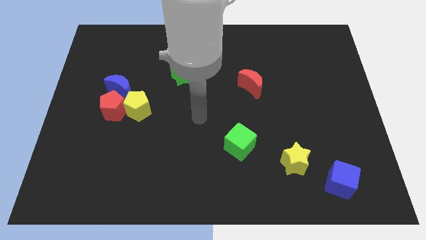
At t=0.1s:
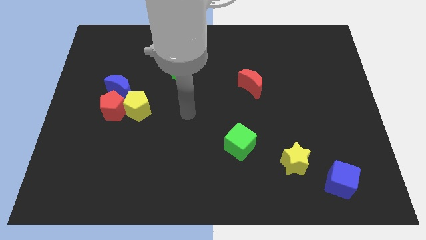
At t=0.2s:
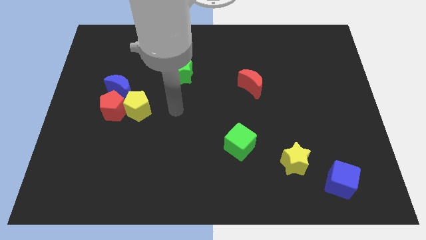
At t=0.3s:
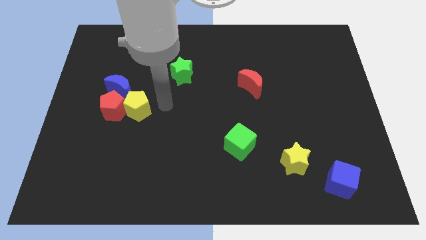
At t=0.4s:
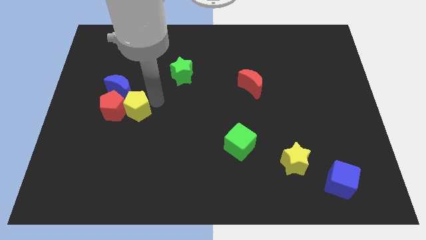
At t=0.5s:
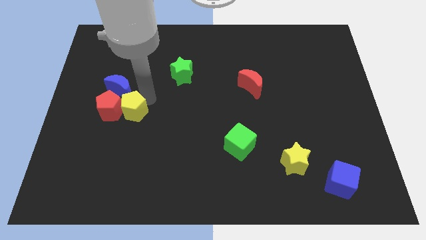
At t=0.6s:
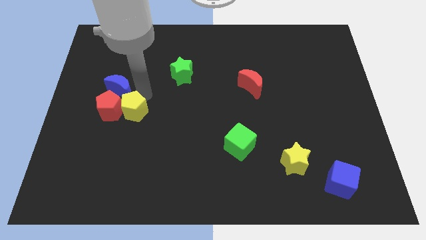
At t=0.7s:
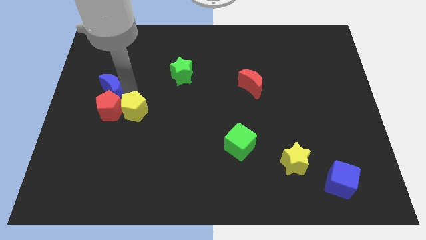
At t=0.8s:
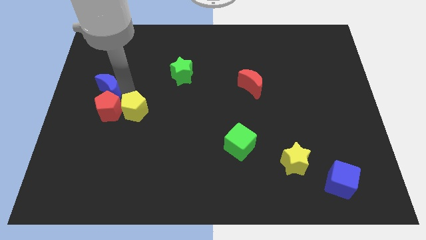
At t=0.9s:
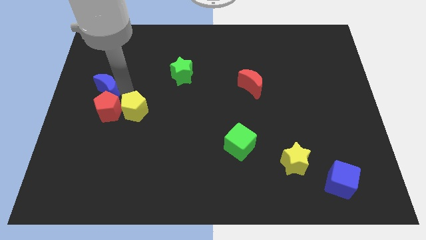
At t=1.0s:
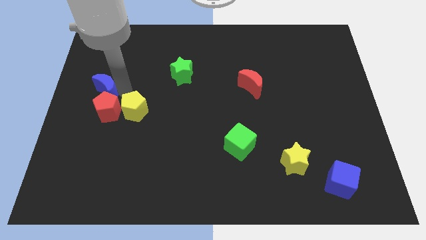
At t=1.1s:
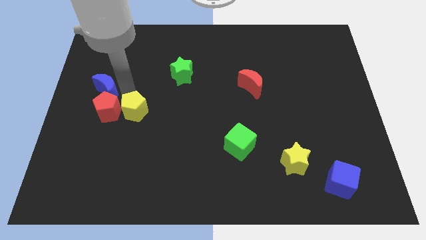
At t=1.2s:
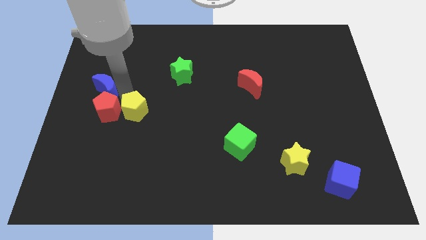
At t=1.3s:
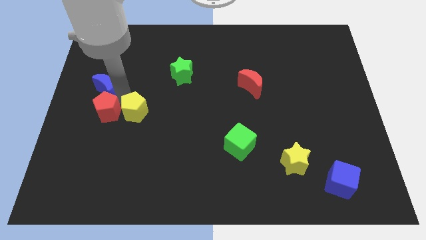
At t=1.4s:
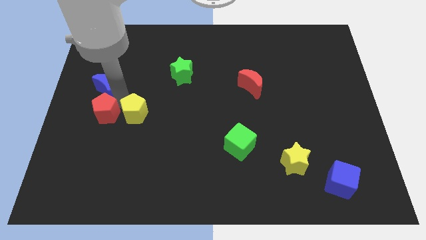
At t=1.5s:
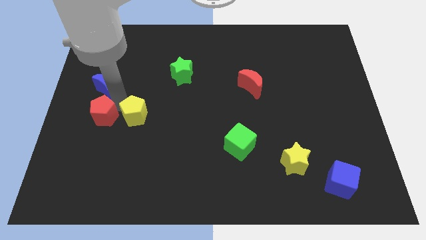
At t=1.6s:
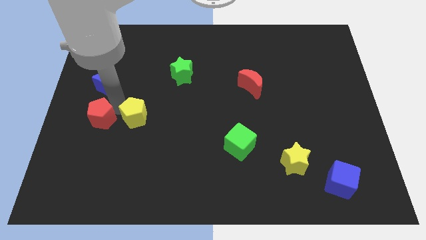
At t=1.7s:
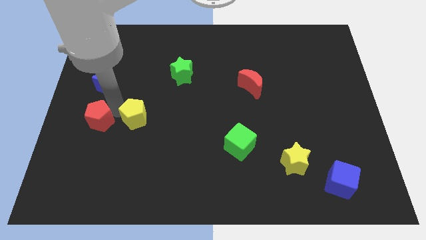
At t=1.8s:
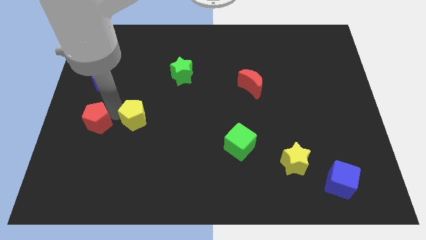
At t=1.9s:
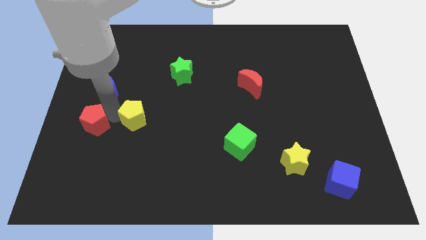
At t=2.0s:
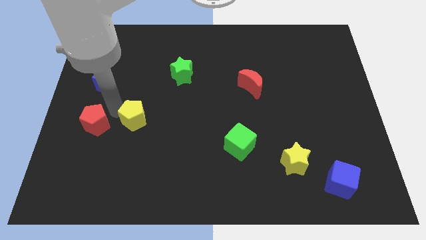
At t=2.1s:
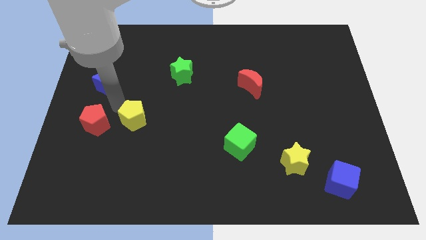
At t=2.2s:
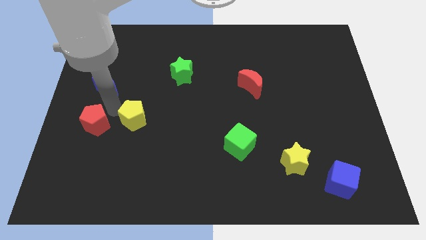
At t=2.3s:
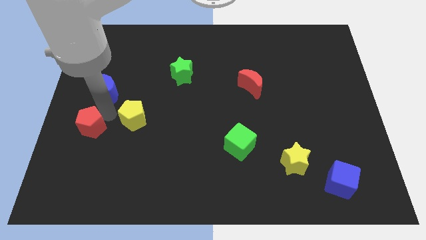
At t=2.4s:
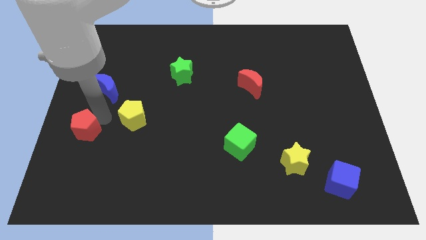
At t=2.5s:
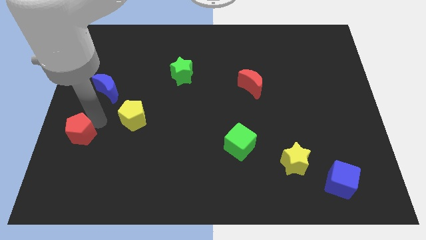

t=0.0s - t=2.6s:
pull the red pentagon apart from the yellow pentagon and blue moon

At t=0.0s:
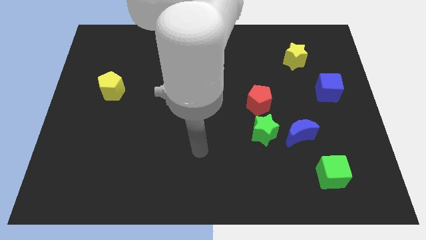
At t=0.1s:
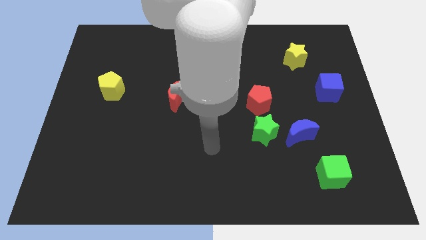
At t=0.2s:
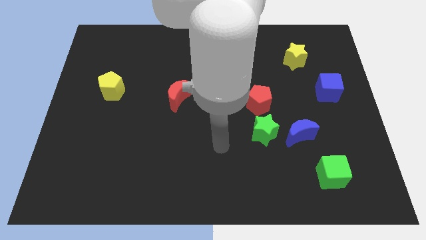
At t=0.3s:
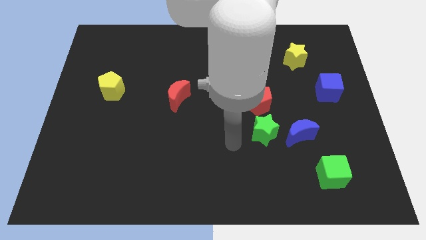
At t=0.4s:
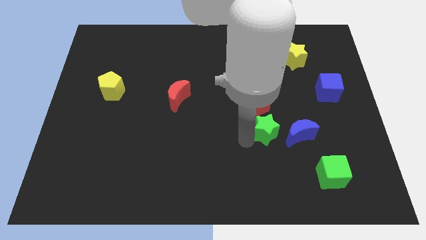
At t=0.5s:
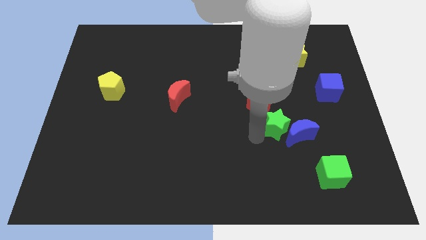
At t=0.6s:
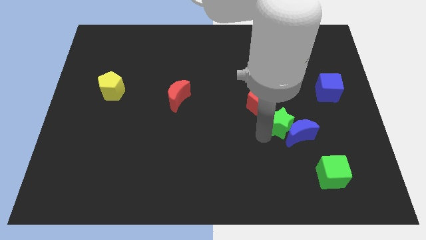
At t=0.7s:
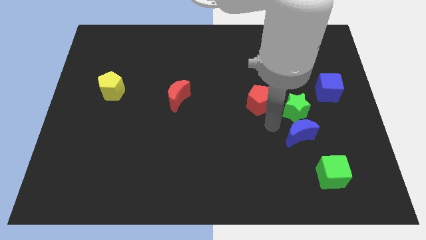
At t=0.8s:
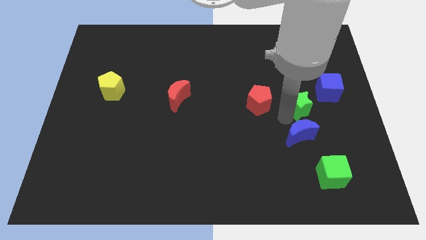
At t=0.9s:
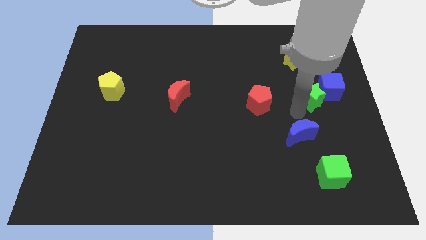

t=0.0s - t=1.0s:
pull the blue moon apart from the green star

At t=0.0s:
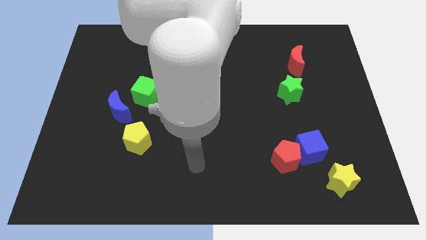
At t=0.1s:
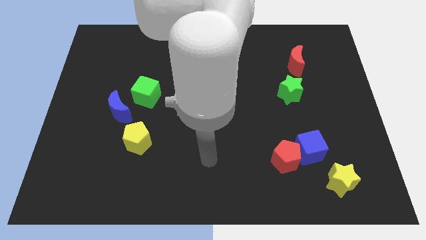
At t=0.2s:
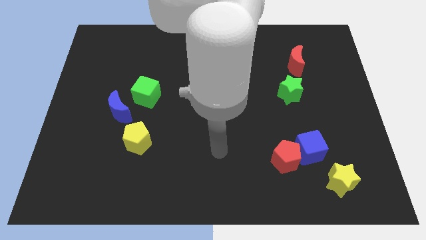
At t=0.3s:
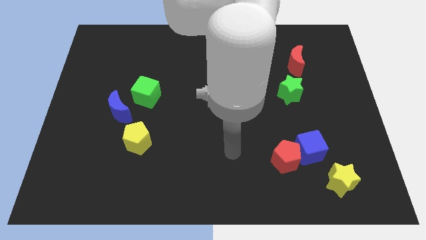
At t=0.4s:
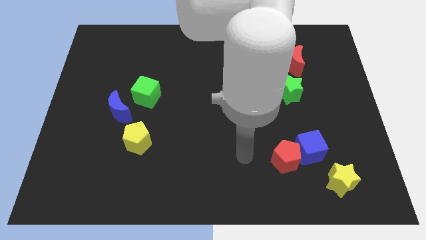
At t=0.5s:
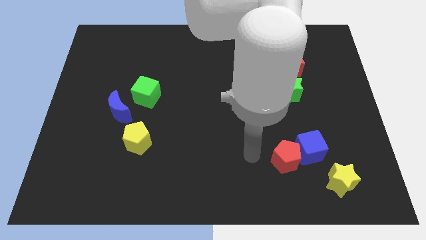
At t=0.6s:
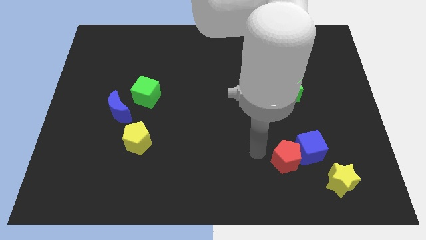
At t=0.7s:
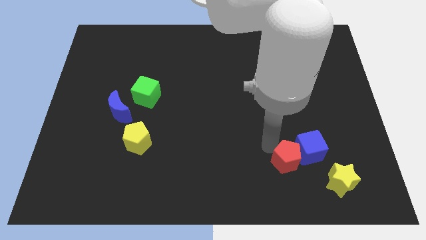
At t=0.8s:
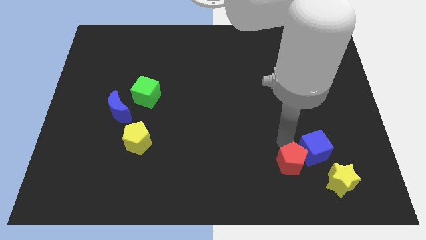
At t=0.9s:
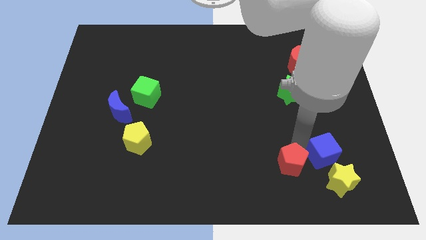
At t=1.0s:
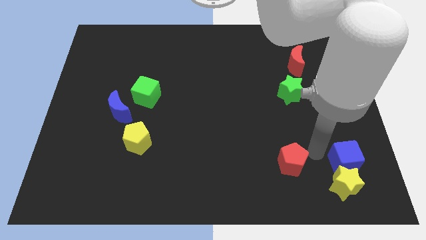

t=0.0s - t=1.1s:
move the red pentagon away from the blue cube

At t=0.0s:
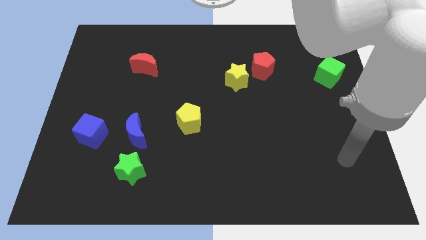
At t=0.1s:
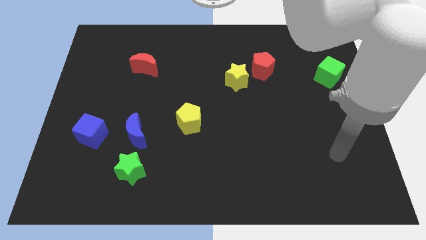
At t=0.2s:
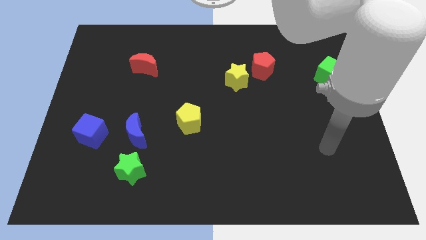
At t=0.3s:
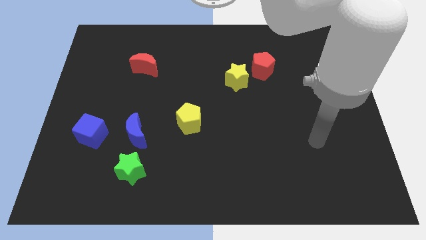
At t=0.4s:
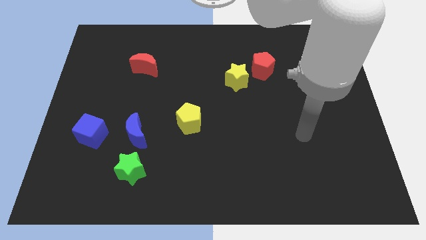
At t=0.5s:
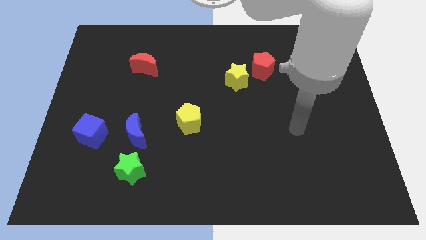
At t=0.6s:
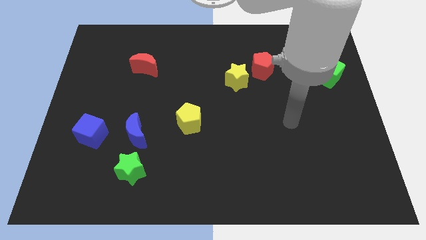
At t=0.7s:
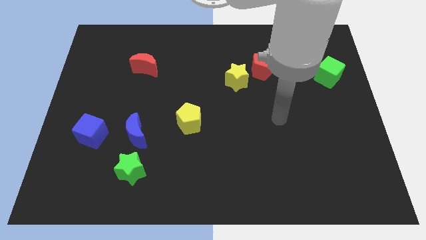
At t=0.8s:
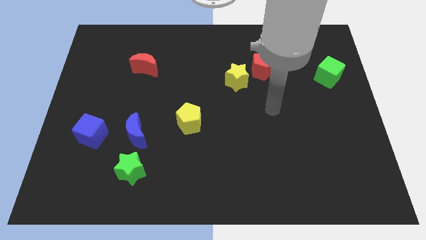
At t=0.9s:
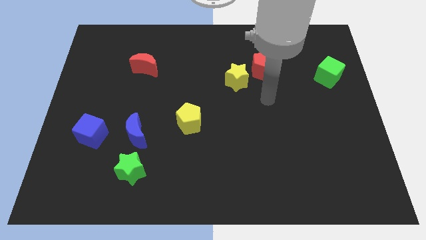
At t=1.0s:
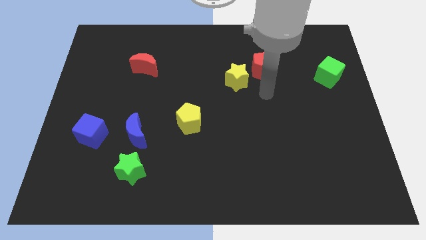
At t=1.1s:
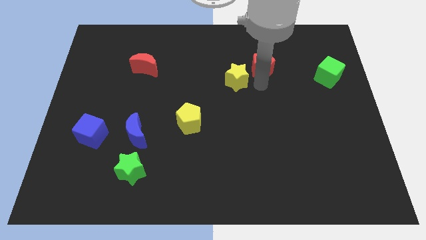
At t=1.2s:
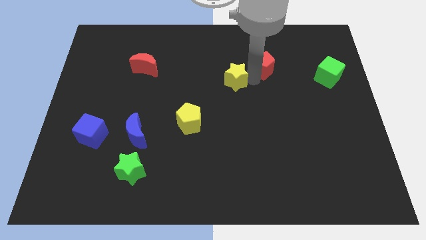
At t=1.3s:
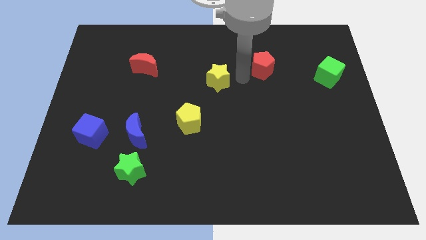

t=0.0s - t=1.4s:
move the red pentagon away from the yellow star

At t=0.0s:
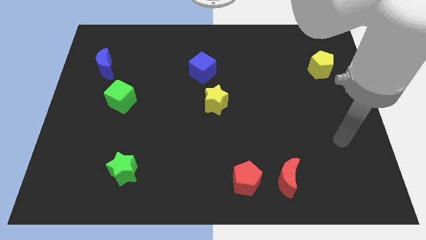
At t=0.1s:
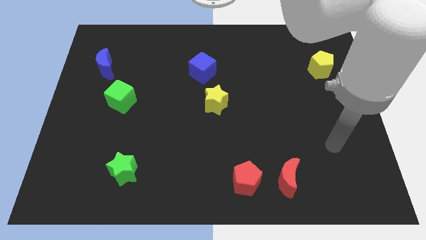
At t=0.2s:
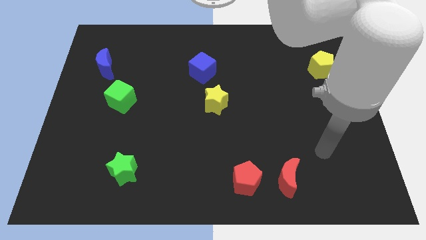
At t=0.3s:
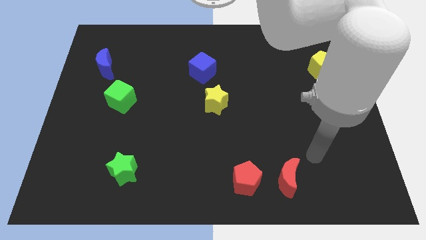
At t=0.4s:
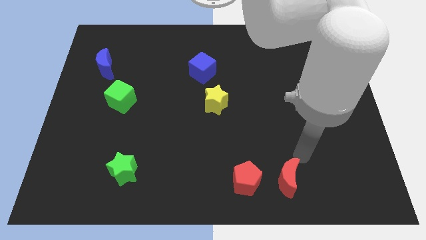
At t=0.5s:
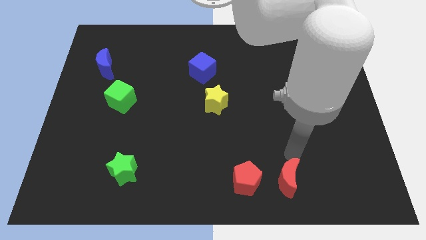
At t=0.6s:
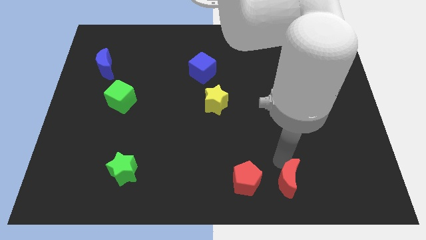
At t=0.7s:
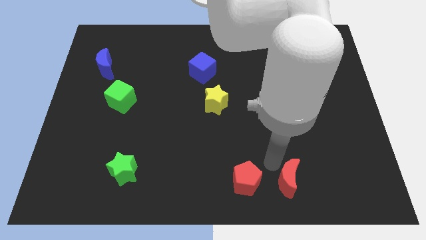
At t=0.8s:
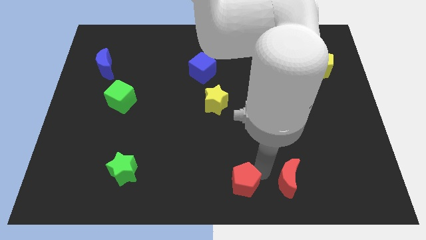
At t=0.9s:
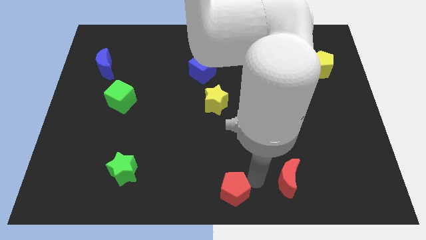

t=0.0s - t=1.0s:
pull the red moon apart from the red pentagon

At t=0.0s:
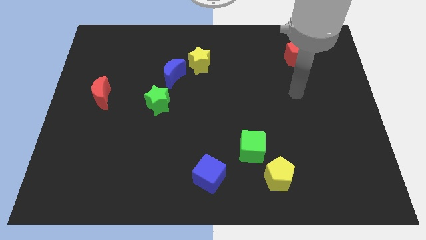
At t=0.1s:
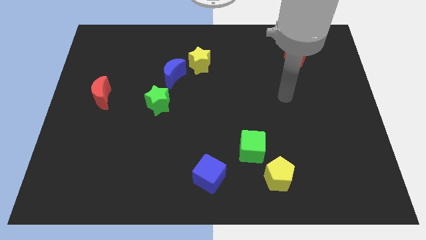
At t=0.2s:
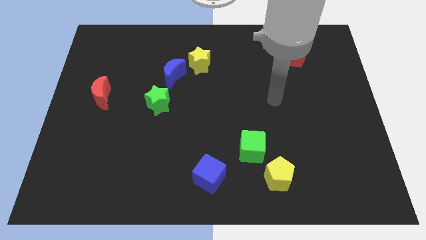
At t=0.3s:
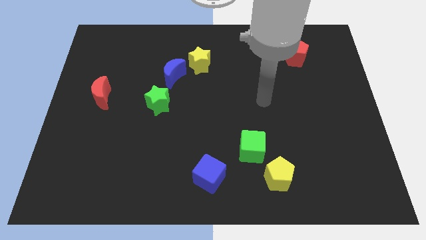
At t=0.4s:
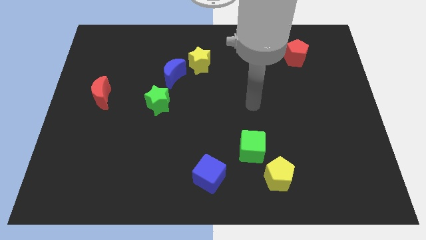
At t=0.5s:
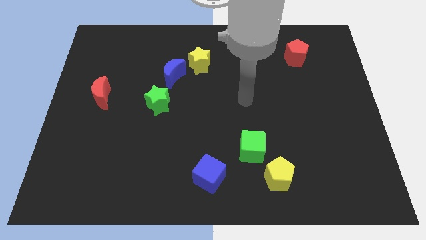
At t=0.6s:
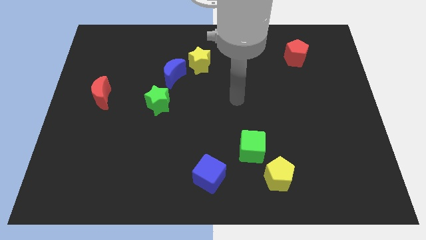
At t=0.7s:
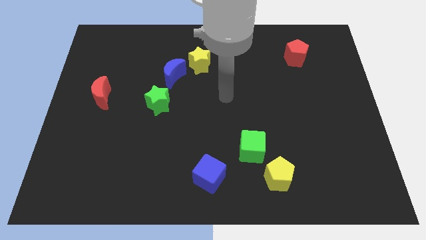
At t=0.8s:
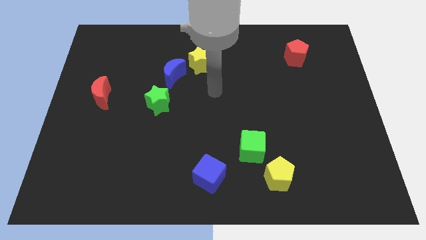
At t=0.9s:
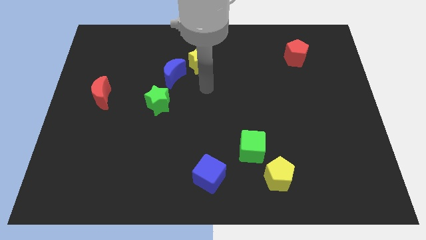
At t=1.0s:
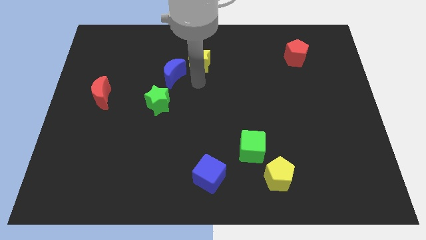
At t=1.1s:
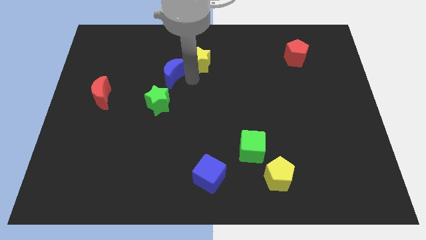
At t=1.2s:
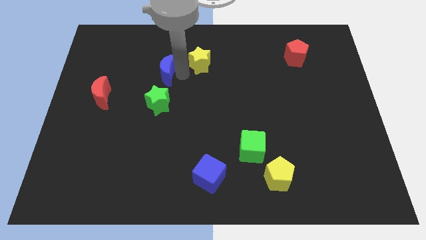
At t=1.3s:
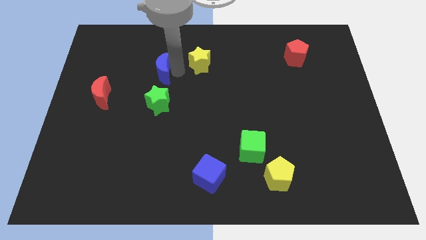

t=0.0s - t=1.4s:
separate the yellow star from the blue moon

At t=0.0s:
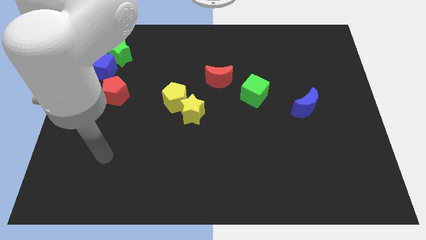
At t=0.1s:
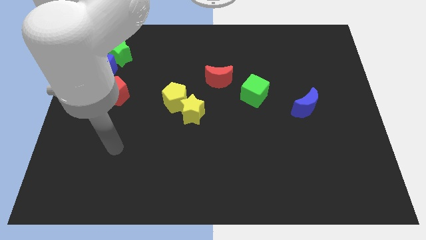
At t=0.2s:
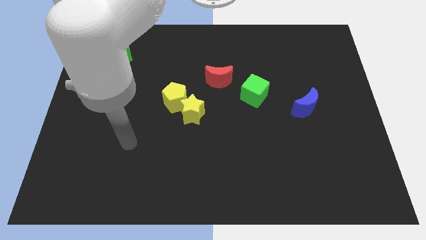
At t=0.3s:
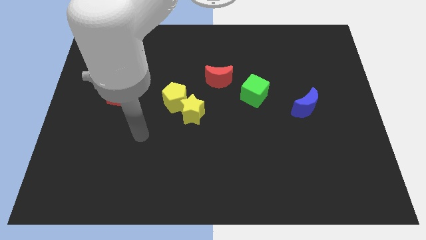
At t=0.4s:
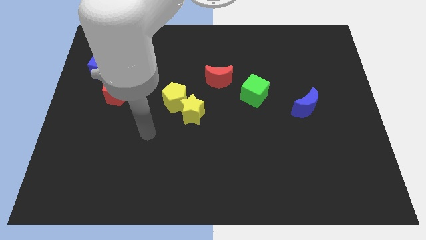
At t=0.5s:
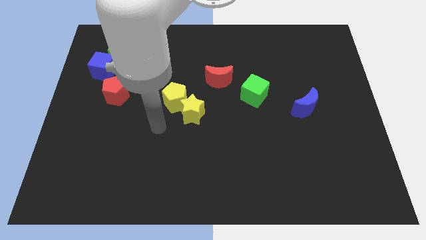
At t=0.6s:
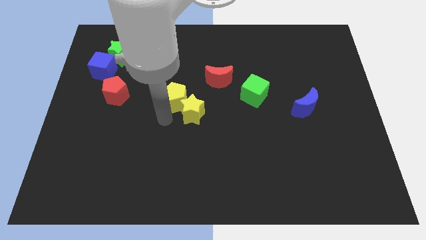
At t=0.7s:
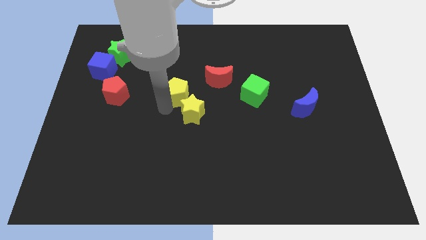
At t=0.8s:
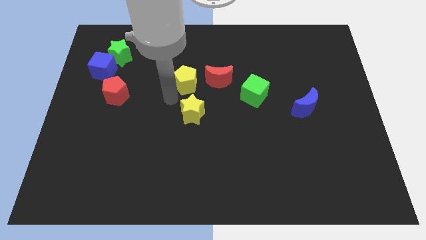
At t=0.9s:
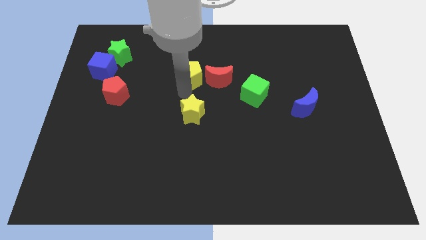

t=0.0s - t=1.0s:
separate the yellow star from the yellow pentagon
